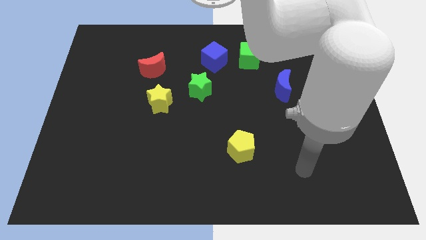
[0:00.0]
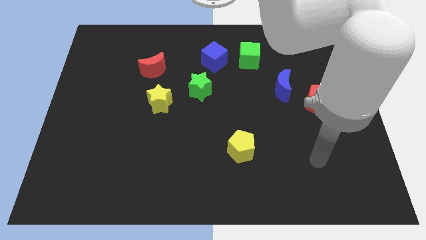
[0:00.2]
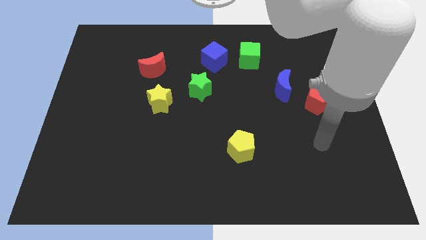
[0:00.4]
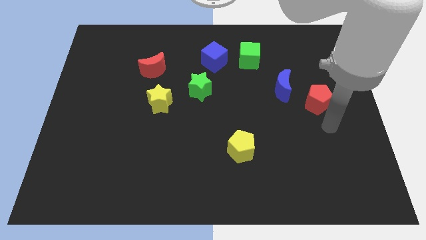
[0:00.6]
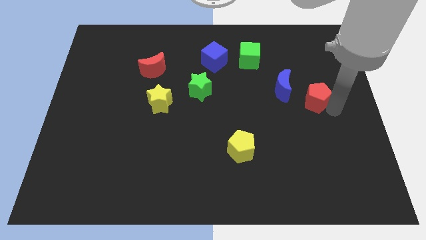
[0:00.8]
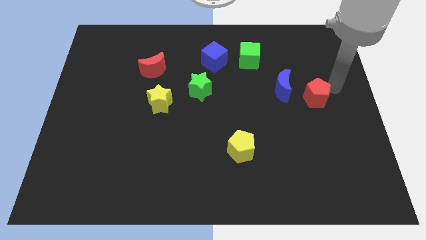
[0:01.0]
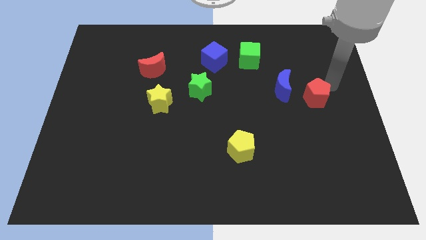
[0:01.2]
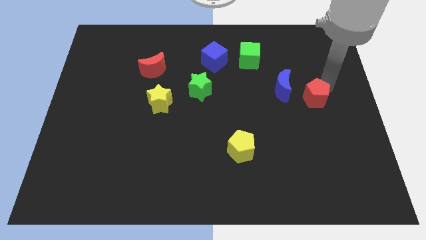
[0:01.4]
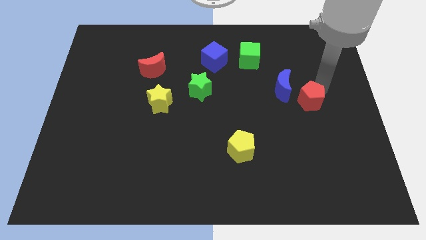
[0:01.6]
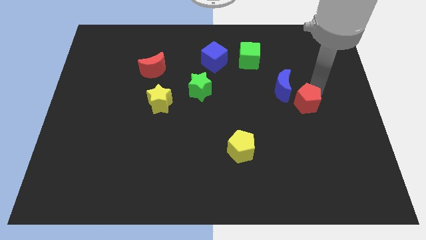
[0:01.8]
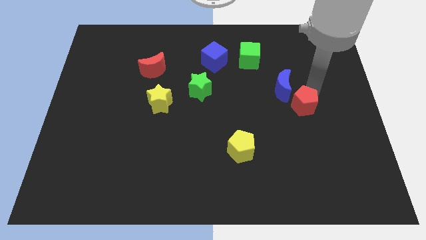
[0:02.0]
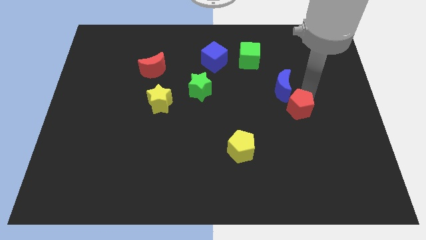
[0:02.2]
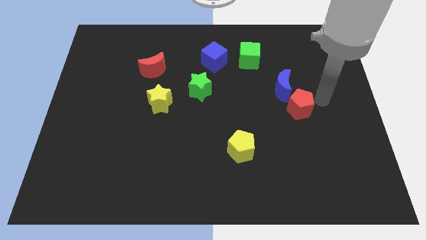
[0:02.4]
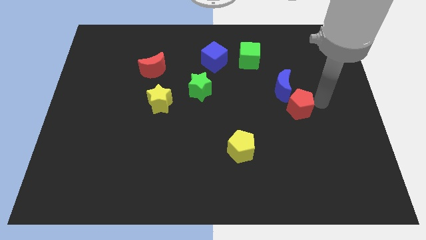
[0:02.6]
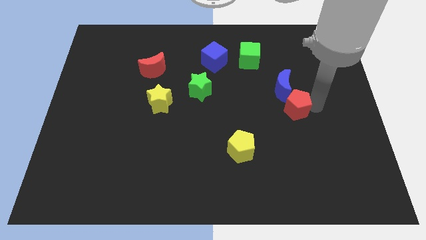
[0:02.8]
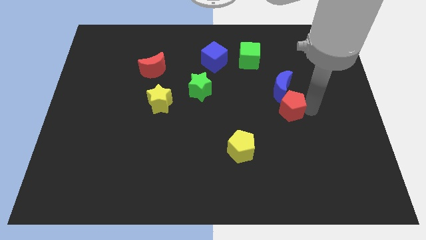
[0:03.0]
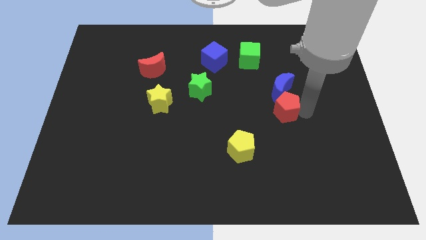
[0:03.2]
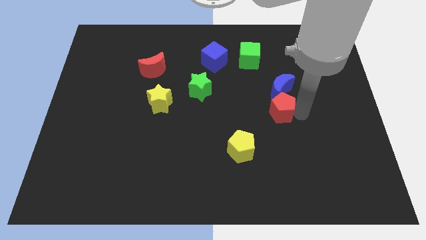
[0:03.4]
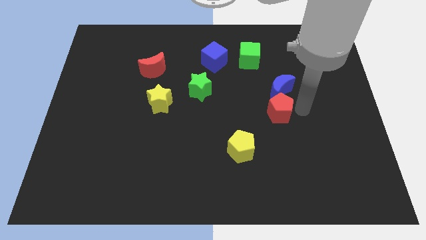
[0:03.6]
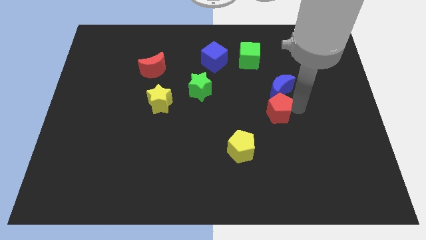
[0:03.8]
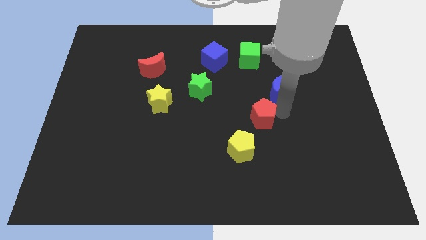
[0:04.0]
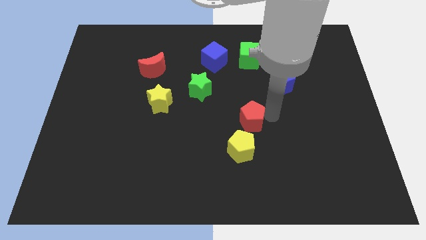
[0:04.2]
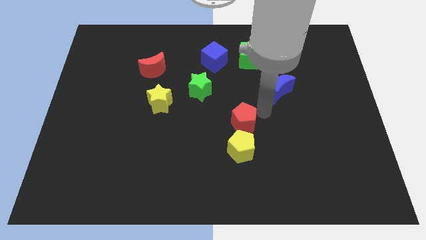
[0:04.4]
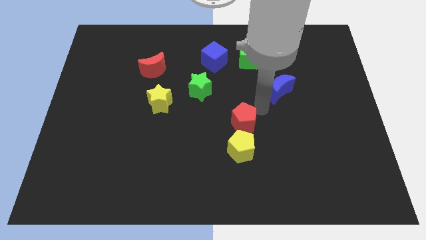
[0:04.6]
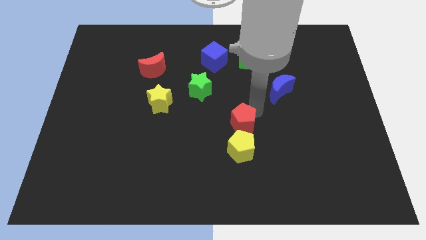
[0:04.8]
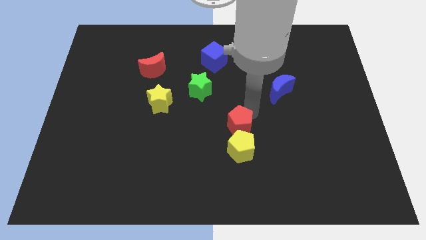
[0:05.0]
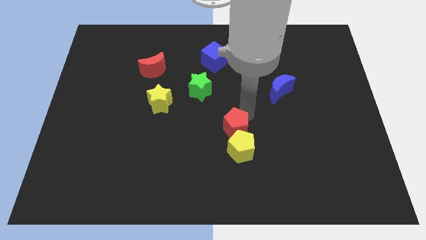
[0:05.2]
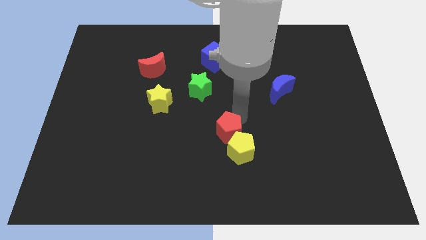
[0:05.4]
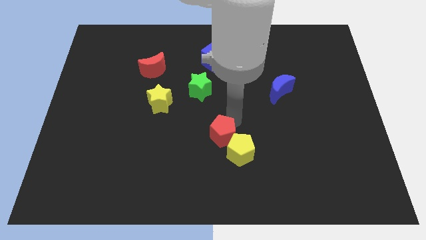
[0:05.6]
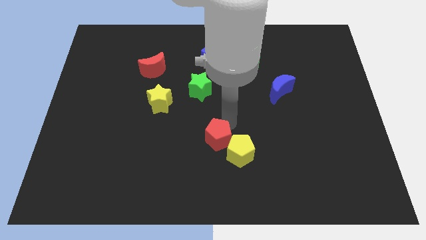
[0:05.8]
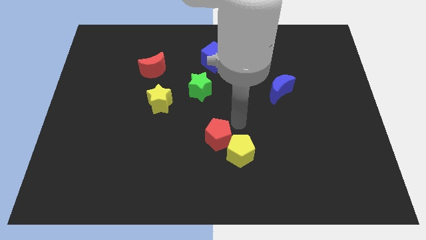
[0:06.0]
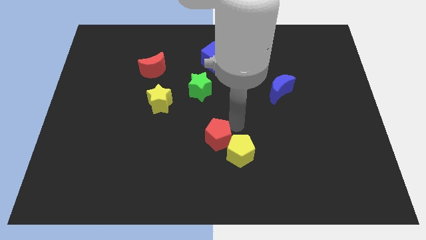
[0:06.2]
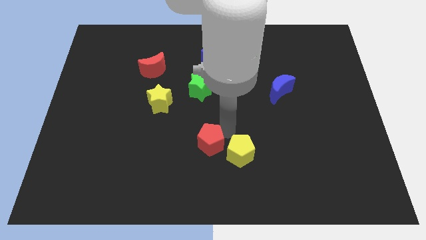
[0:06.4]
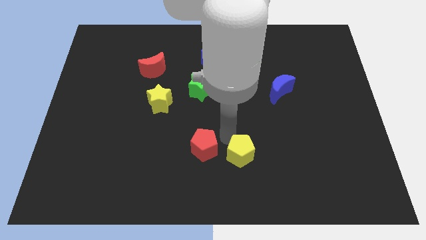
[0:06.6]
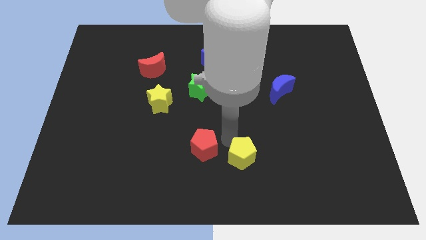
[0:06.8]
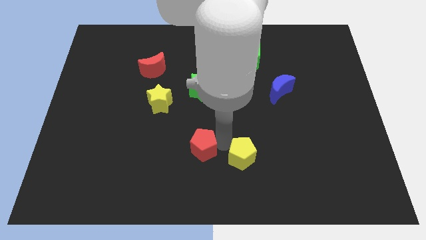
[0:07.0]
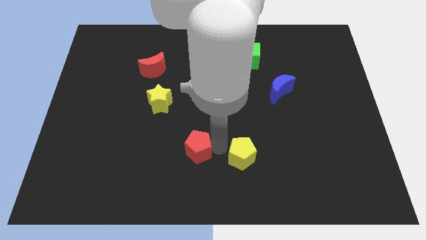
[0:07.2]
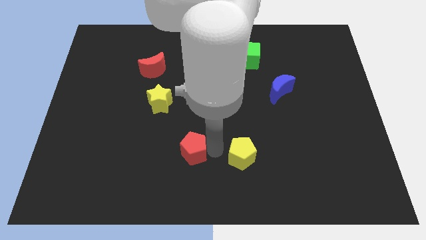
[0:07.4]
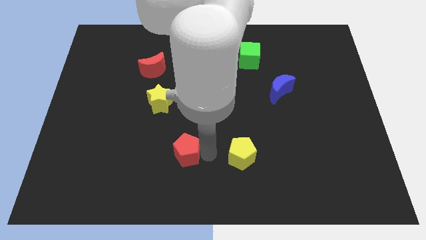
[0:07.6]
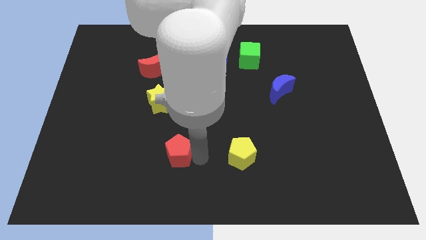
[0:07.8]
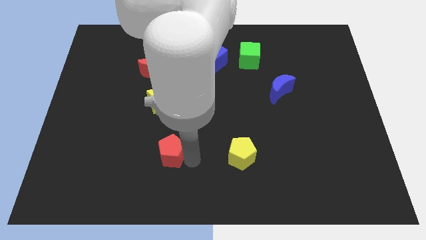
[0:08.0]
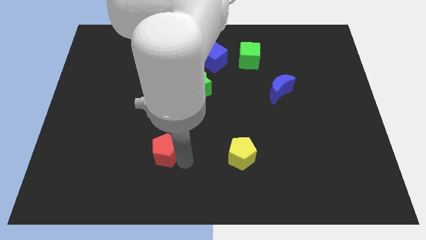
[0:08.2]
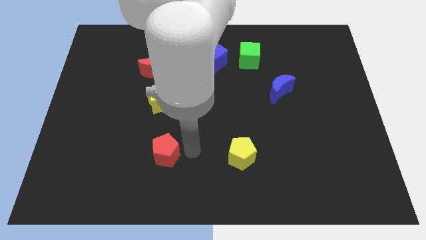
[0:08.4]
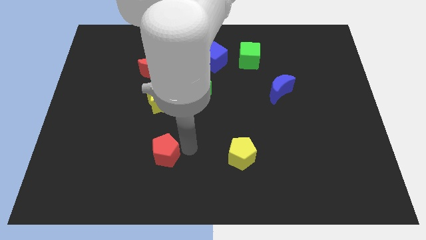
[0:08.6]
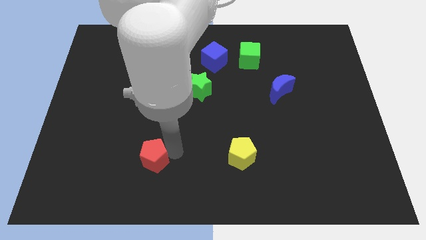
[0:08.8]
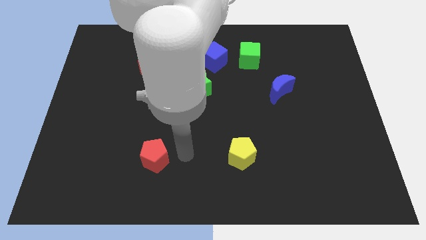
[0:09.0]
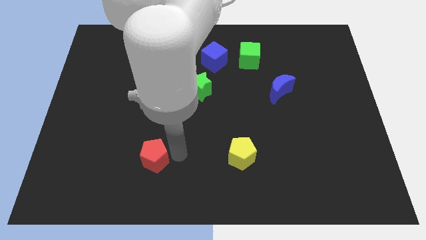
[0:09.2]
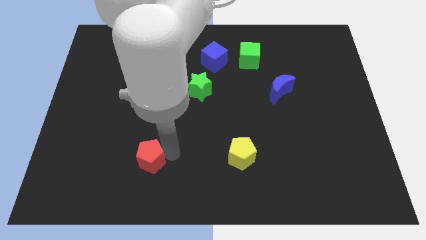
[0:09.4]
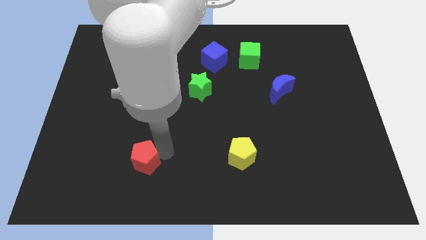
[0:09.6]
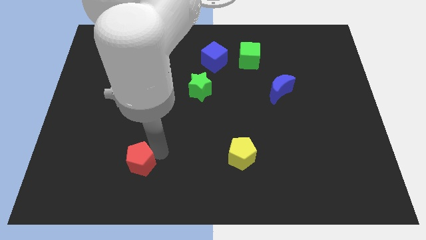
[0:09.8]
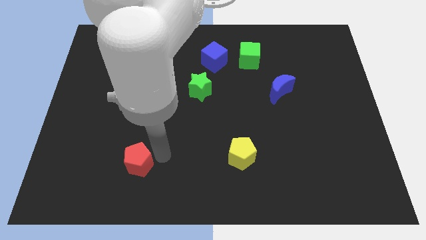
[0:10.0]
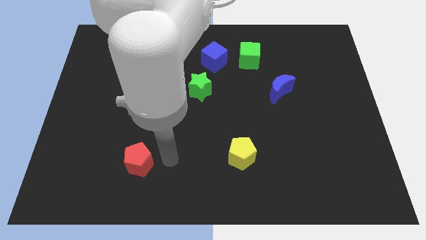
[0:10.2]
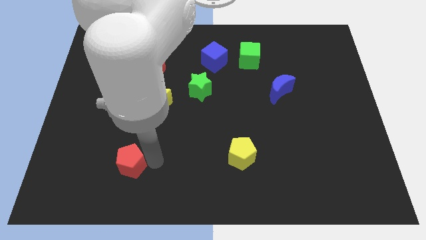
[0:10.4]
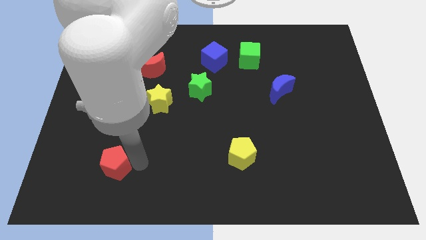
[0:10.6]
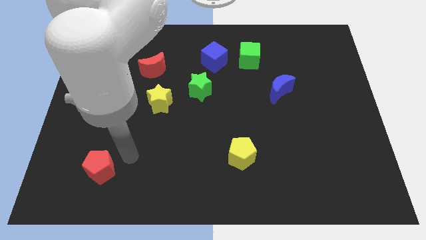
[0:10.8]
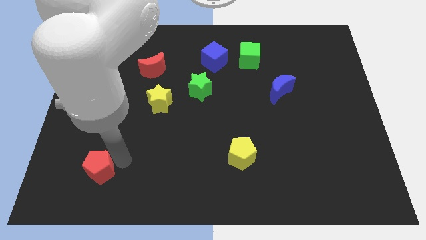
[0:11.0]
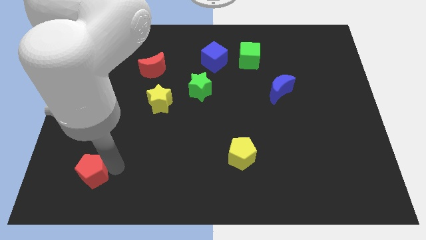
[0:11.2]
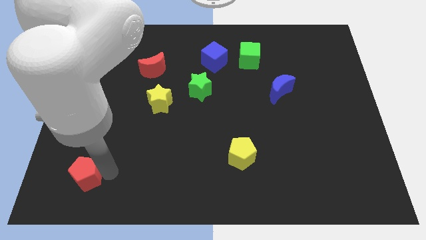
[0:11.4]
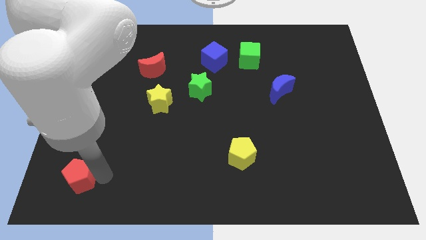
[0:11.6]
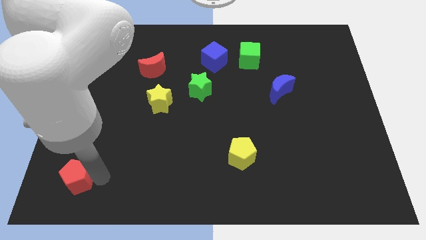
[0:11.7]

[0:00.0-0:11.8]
move the red pentagon to the bottom left corner
